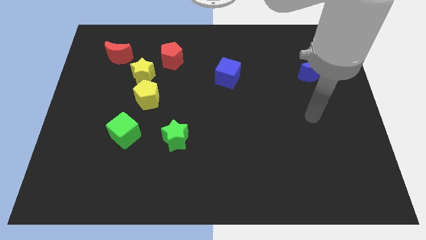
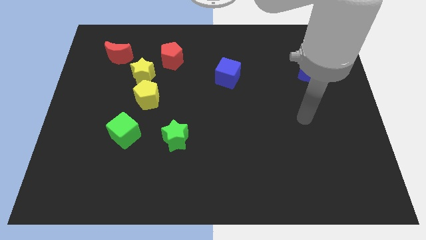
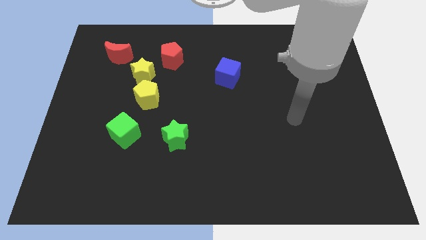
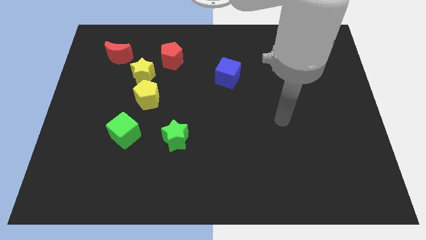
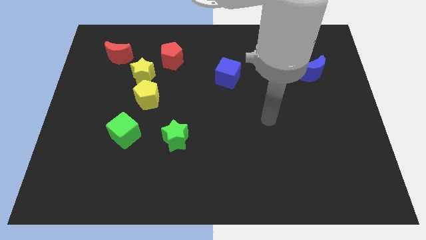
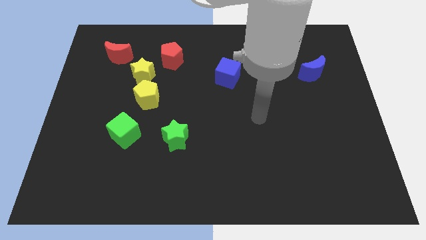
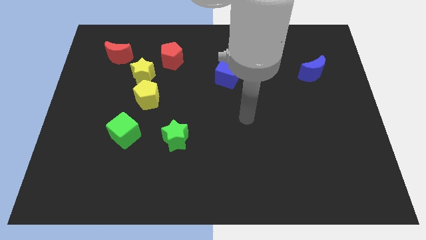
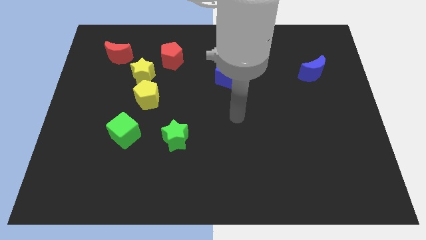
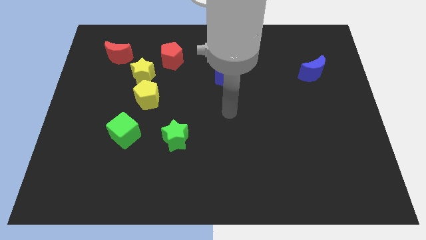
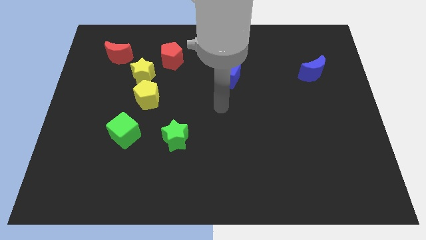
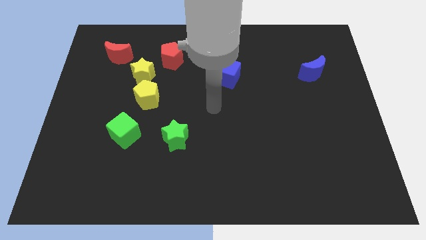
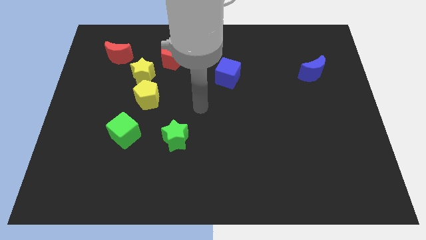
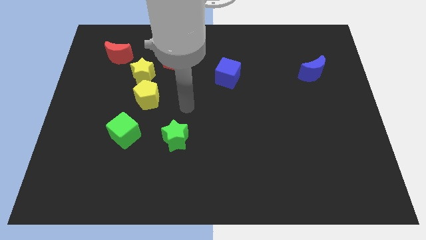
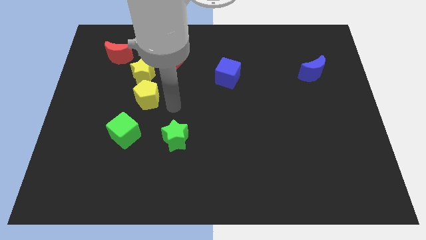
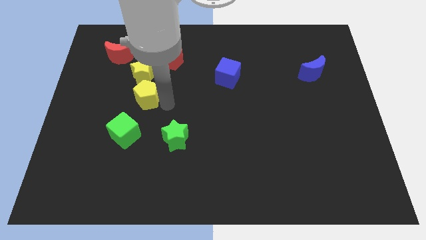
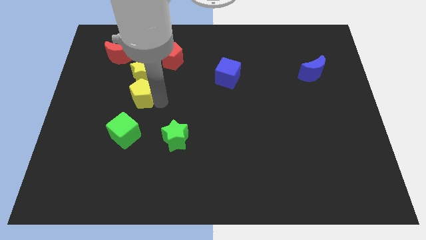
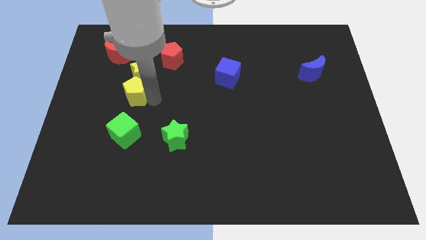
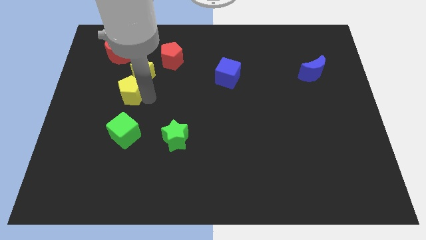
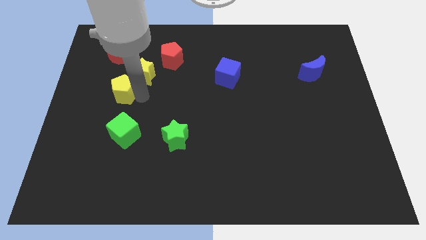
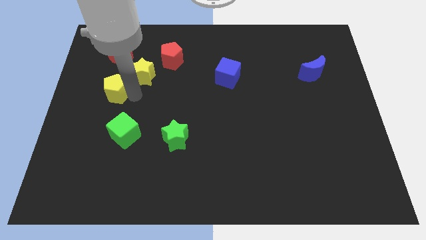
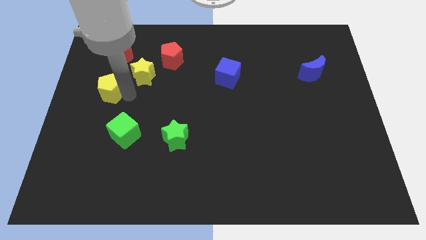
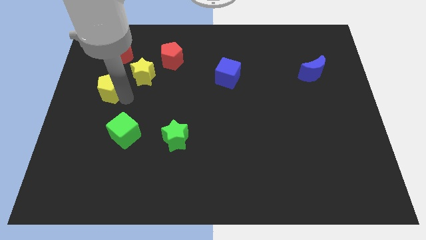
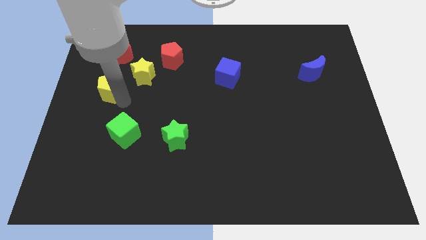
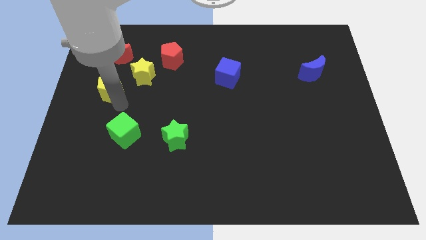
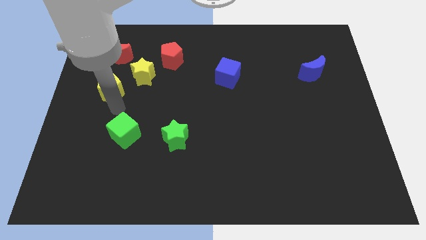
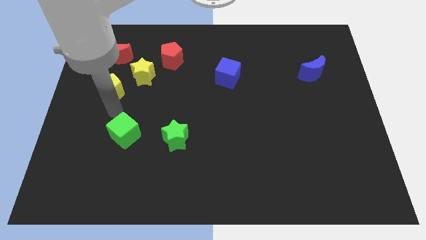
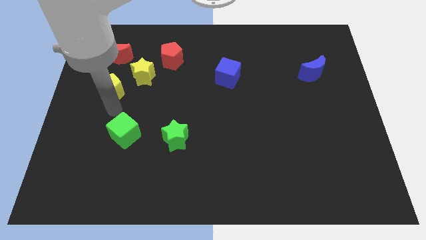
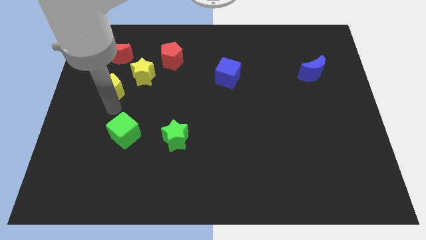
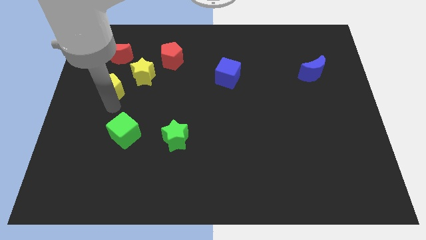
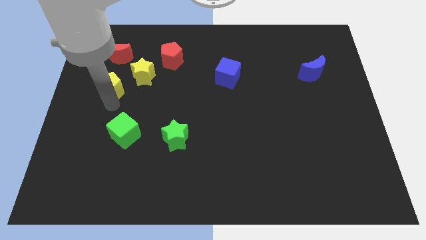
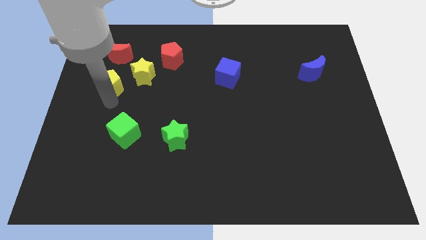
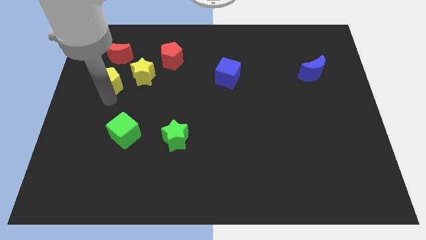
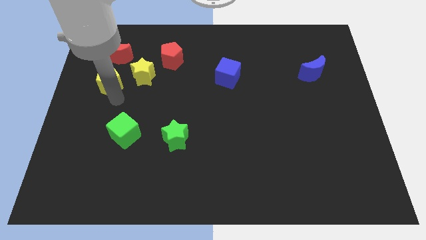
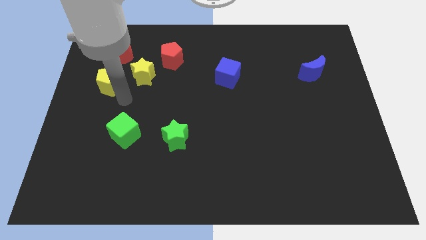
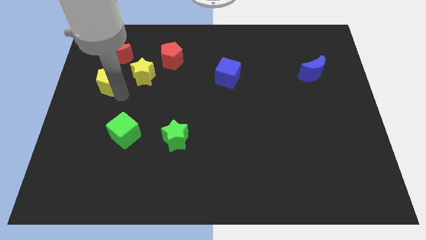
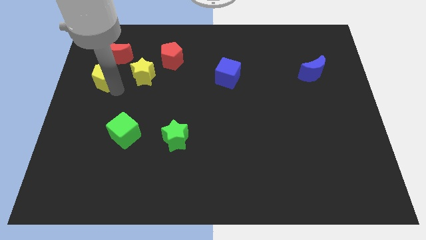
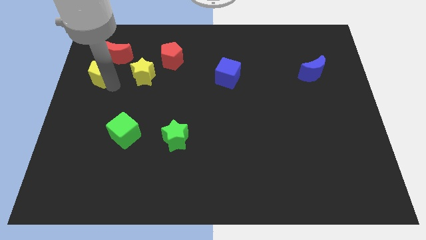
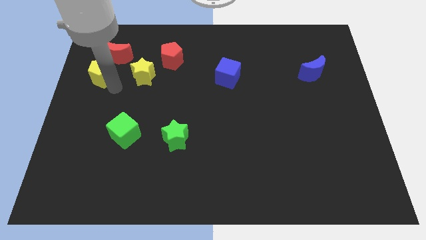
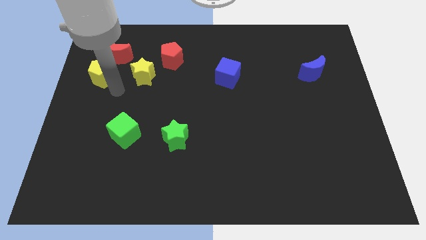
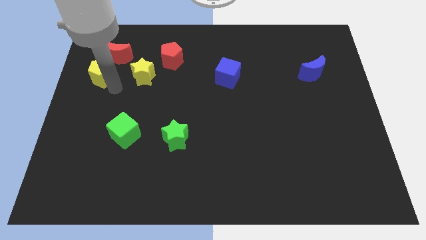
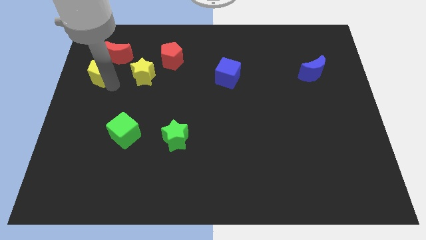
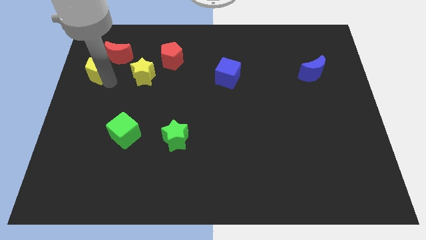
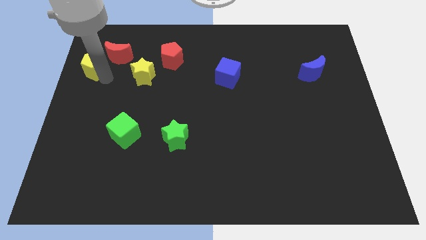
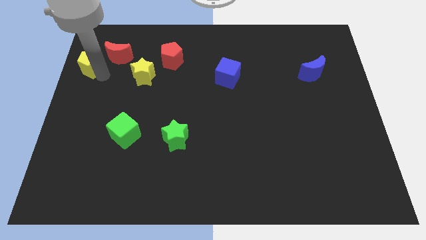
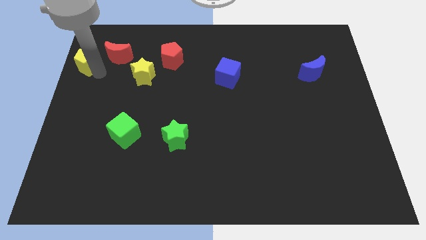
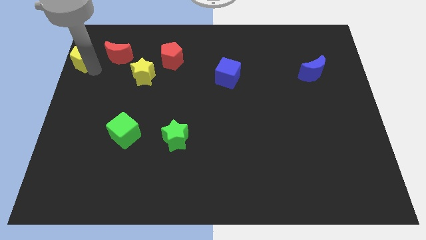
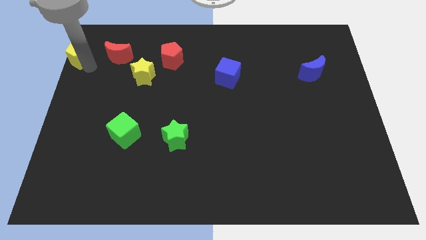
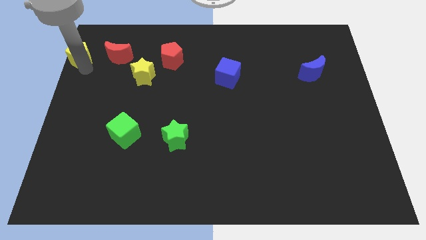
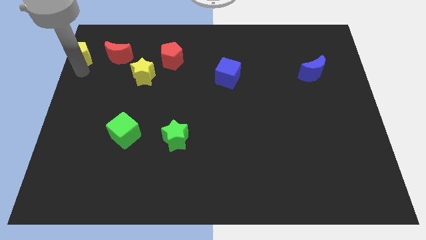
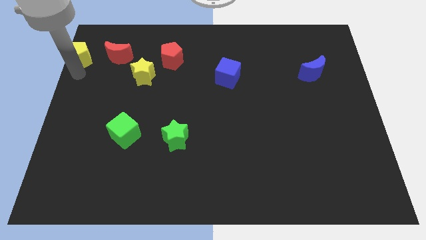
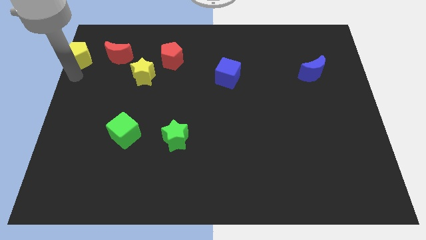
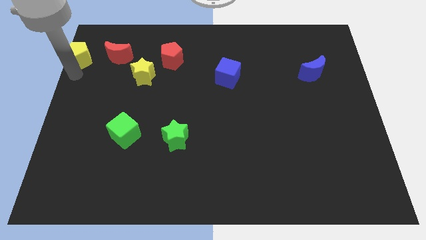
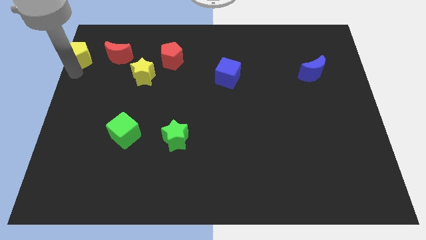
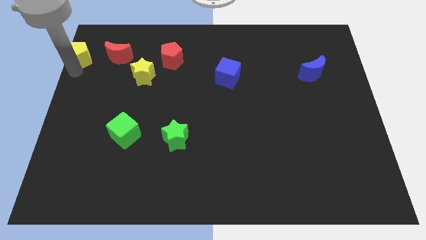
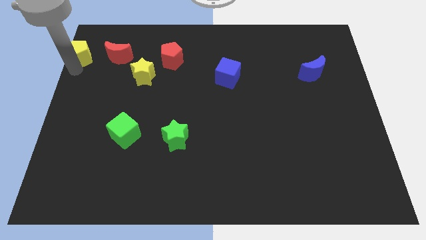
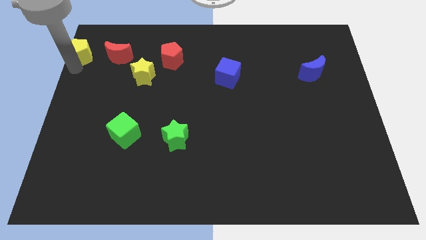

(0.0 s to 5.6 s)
slide the yellow pentagon to the top left of the board
